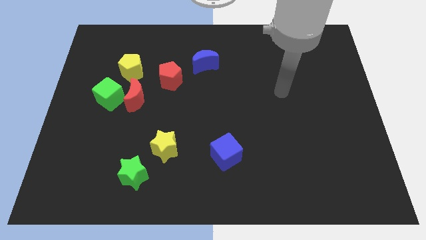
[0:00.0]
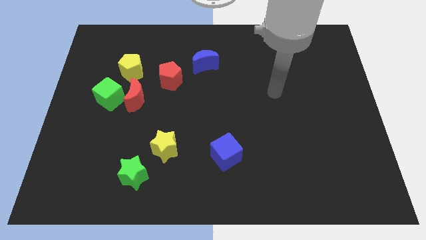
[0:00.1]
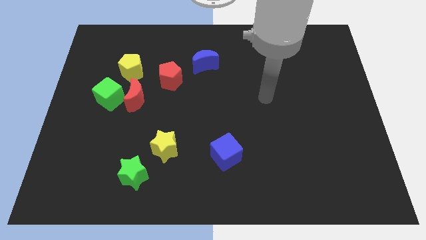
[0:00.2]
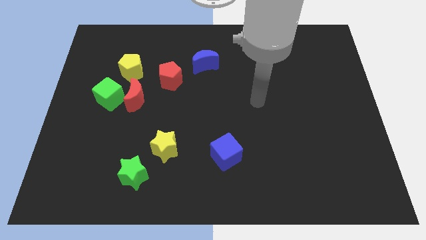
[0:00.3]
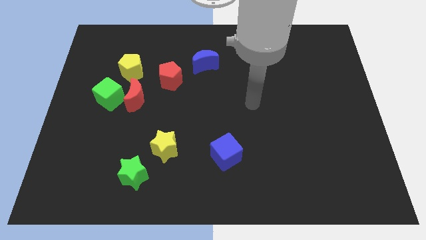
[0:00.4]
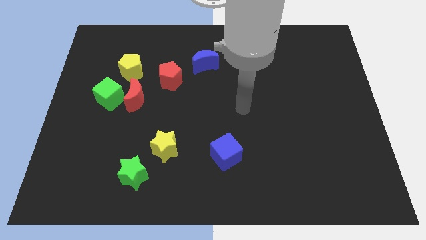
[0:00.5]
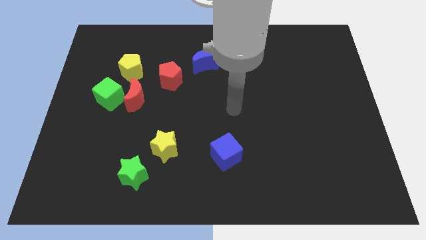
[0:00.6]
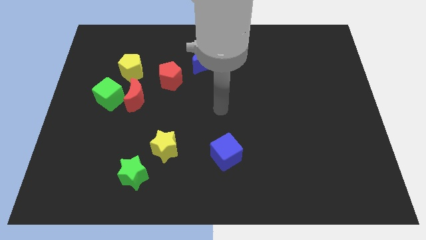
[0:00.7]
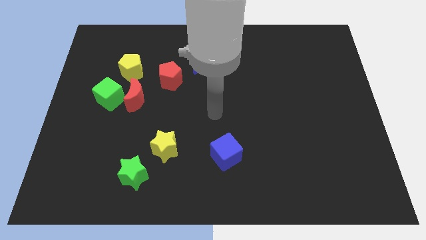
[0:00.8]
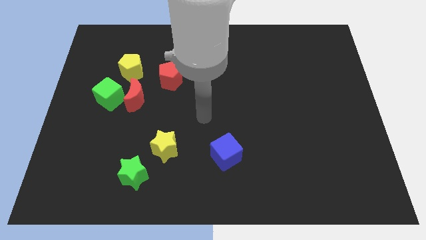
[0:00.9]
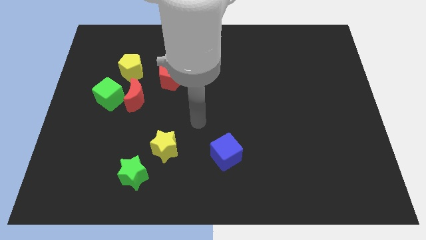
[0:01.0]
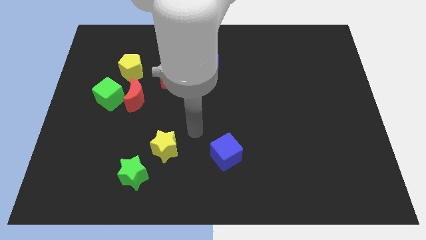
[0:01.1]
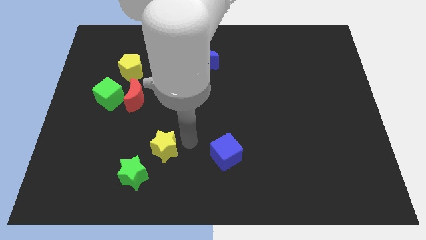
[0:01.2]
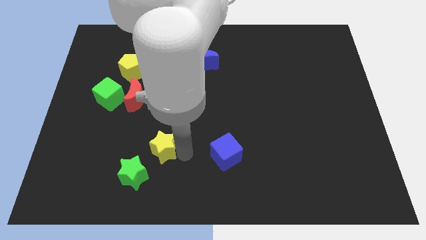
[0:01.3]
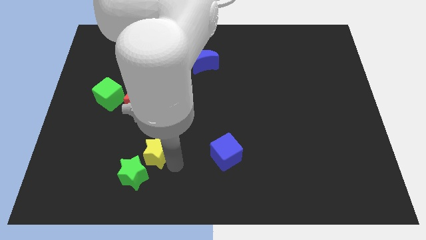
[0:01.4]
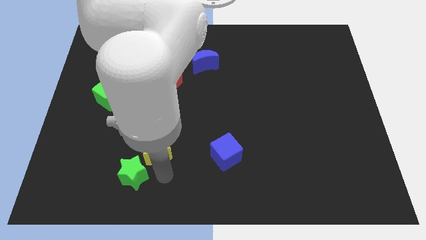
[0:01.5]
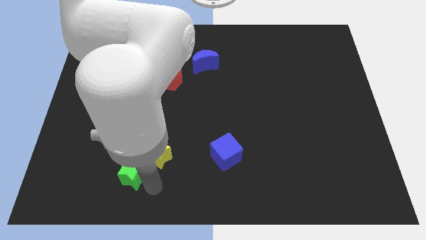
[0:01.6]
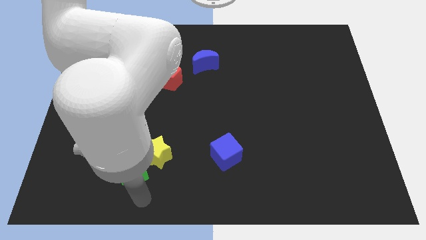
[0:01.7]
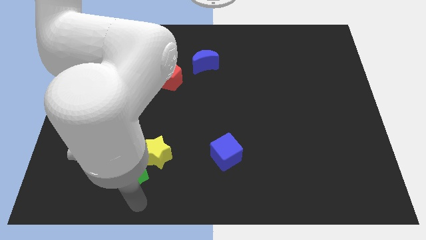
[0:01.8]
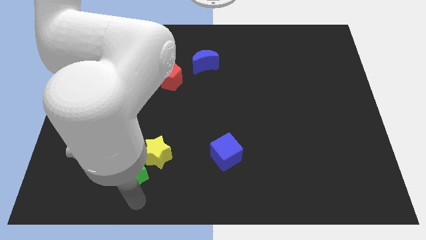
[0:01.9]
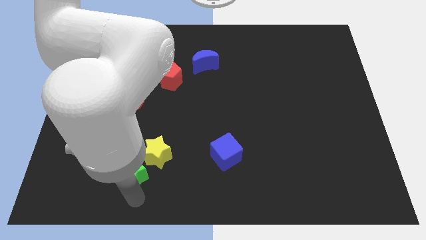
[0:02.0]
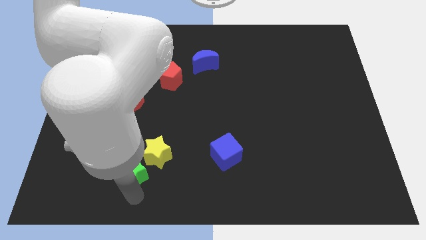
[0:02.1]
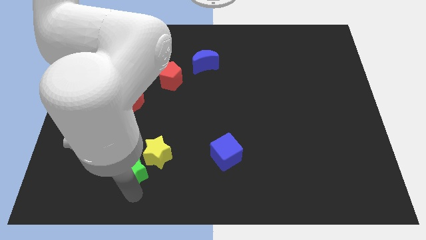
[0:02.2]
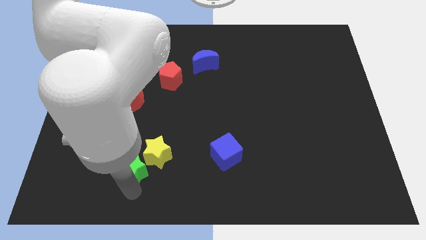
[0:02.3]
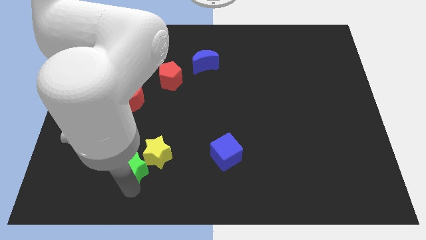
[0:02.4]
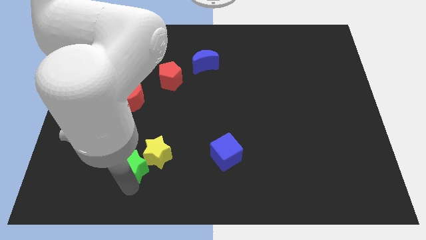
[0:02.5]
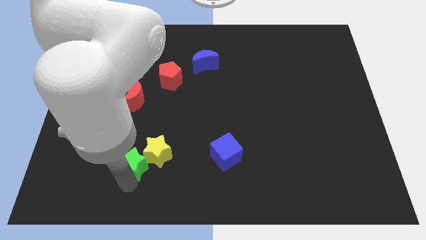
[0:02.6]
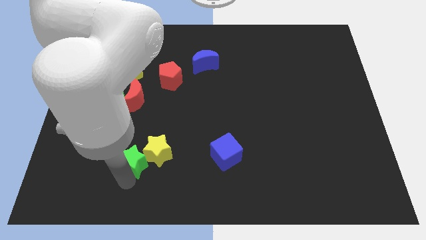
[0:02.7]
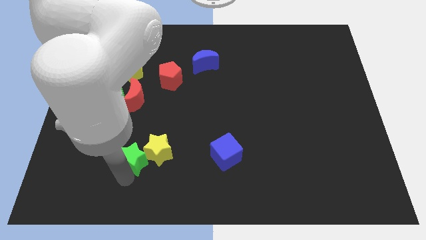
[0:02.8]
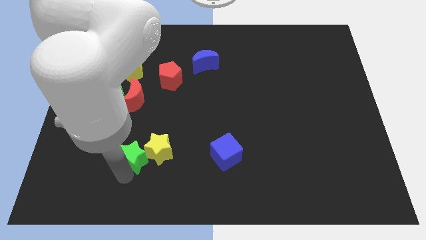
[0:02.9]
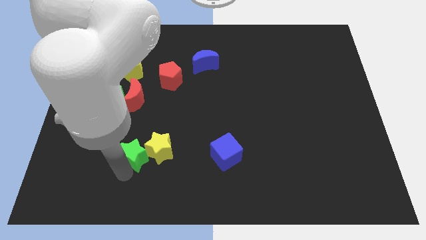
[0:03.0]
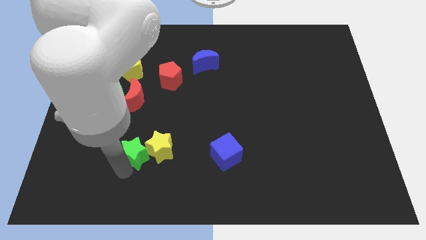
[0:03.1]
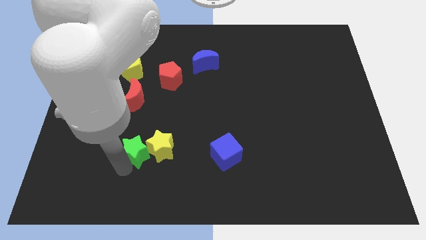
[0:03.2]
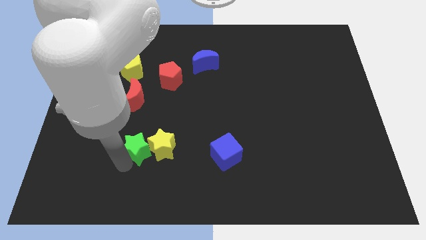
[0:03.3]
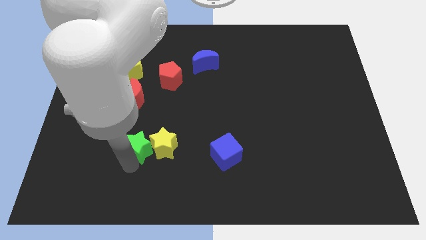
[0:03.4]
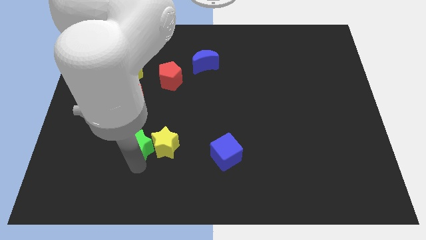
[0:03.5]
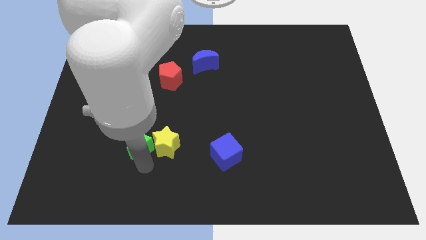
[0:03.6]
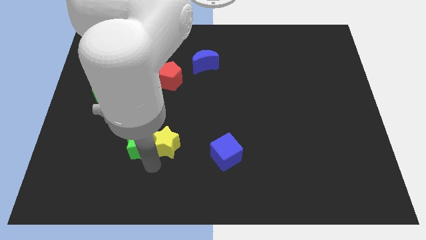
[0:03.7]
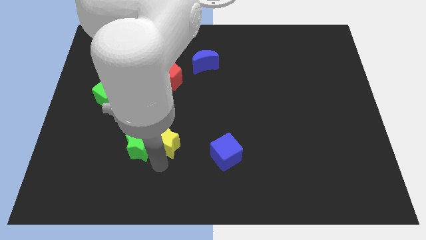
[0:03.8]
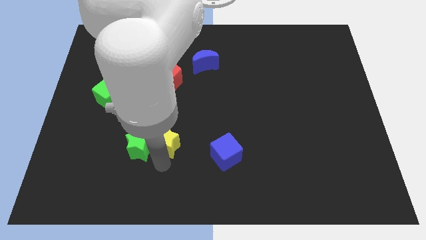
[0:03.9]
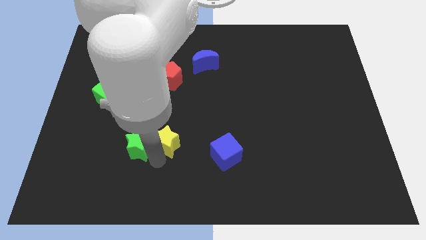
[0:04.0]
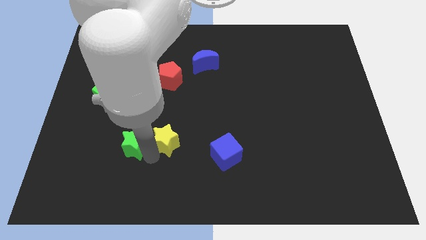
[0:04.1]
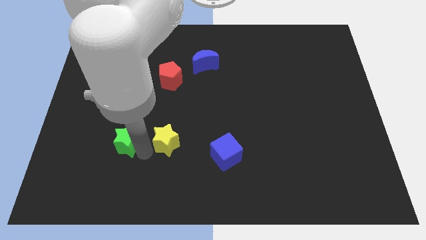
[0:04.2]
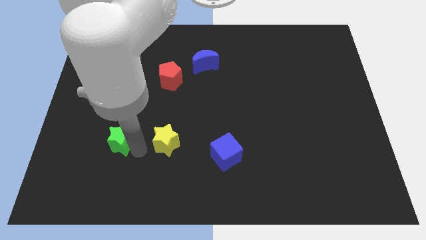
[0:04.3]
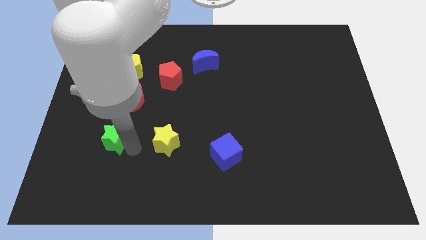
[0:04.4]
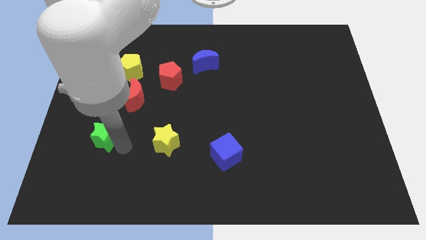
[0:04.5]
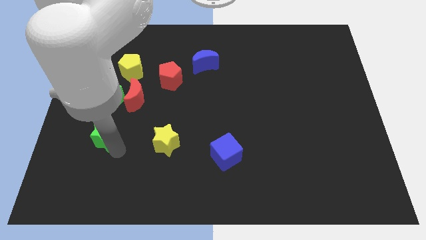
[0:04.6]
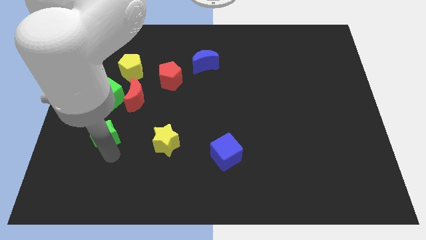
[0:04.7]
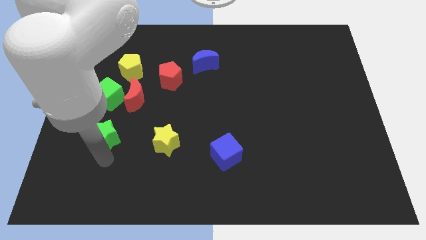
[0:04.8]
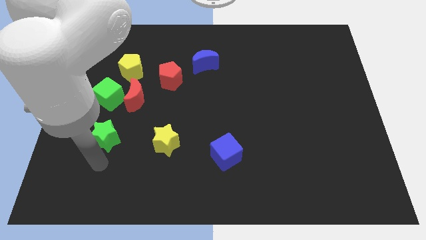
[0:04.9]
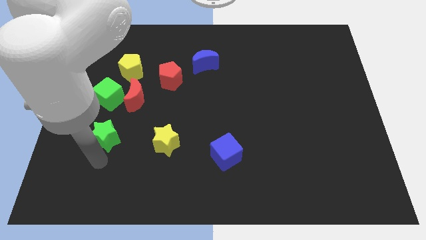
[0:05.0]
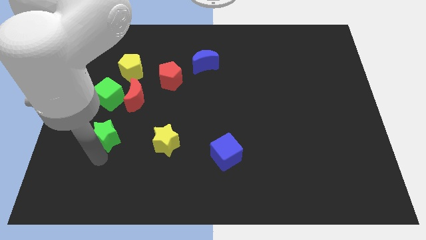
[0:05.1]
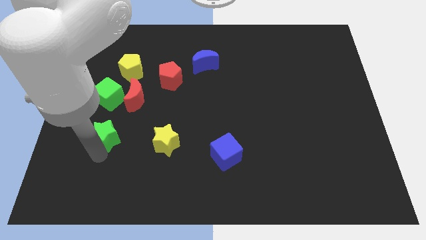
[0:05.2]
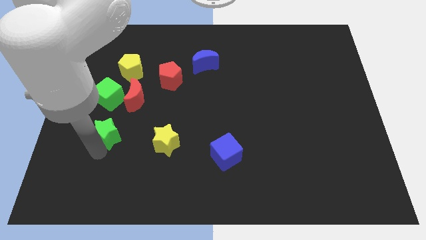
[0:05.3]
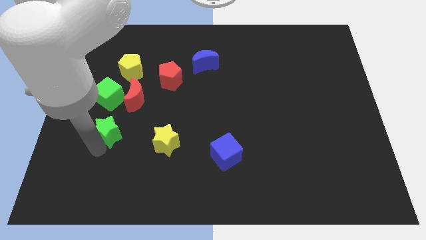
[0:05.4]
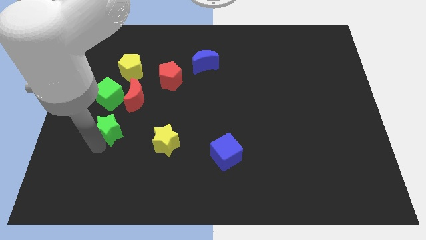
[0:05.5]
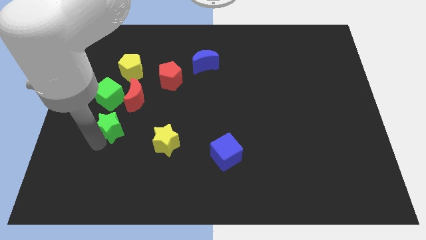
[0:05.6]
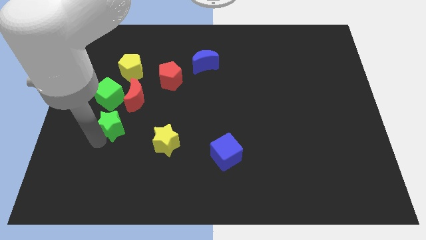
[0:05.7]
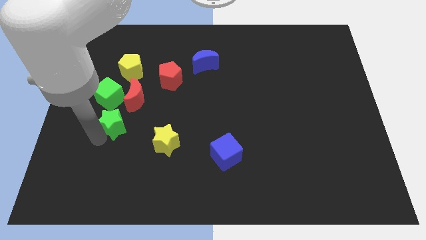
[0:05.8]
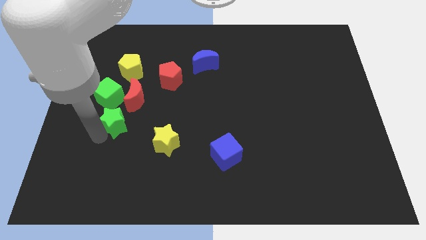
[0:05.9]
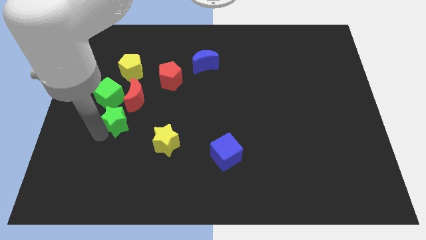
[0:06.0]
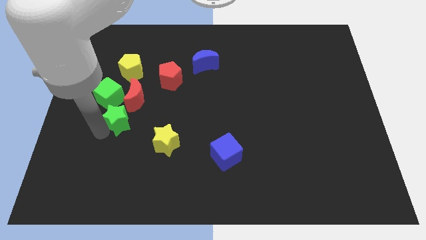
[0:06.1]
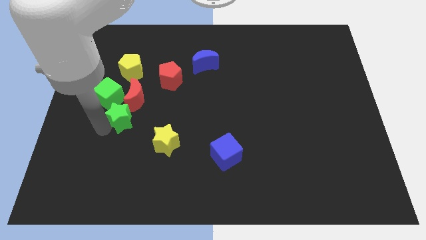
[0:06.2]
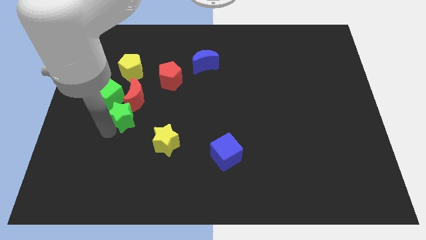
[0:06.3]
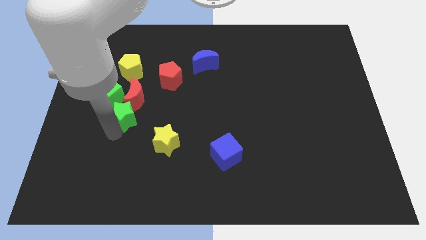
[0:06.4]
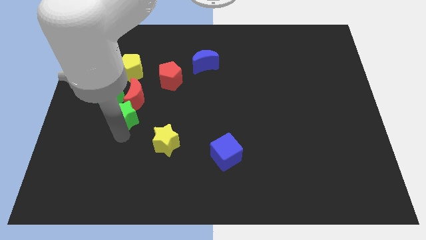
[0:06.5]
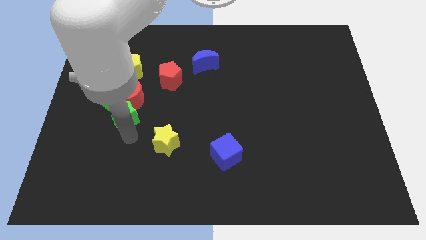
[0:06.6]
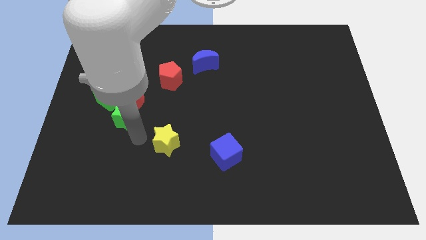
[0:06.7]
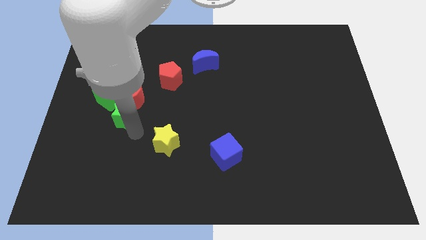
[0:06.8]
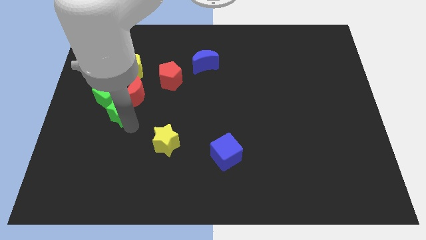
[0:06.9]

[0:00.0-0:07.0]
move the green star close to the green cube

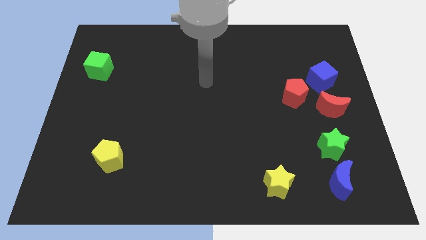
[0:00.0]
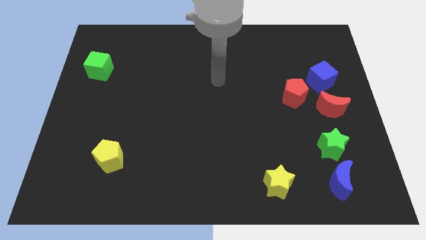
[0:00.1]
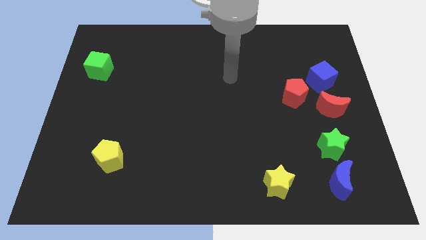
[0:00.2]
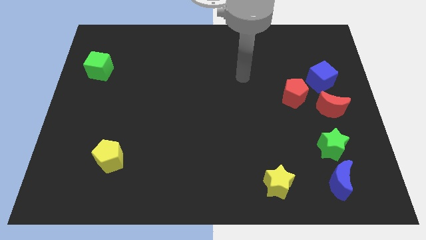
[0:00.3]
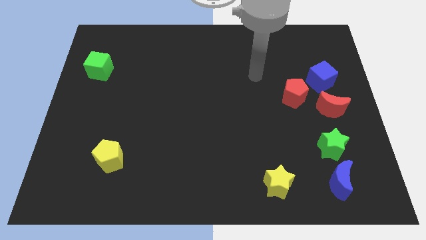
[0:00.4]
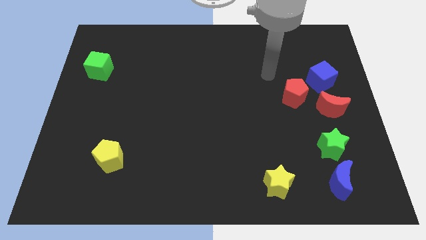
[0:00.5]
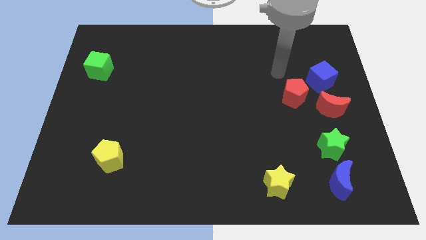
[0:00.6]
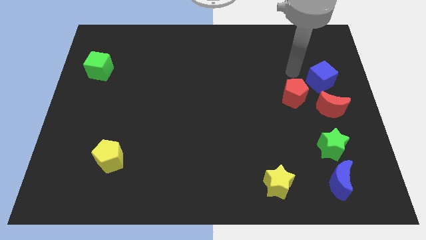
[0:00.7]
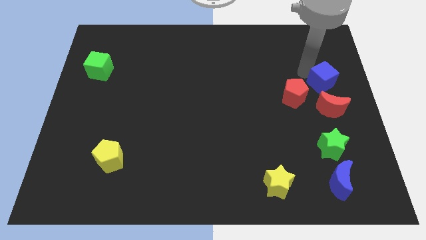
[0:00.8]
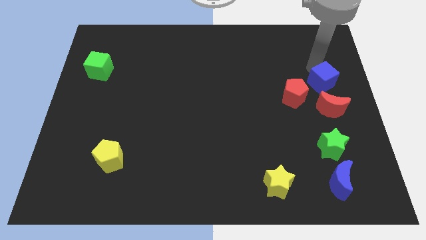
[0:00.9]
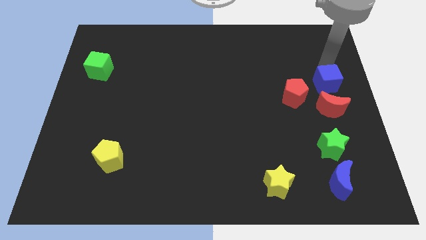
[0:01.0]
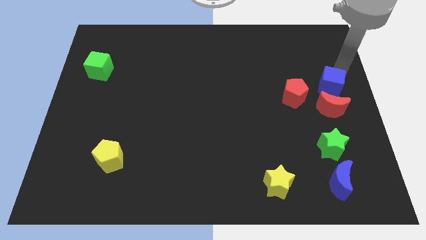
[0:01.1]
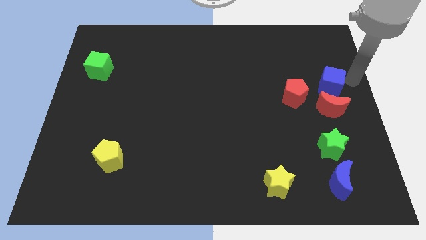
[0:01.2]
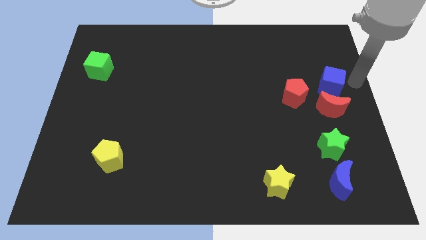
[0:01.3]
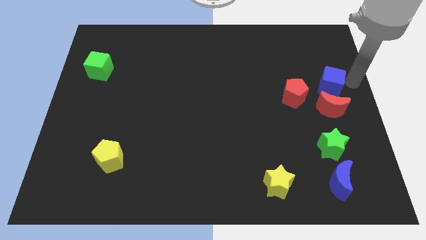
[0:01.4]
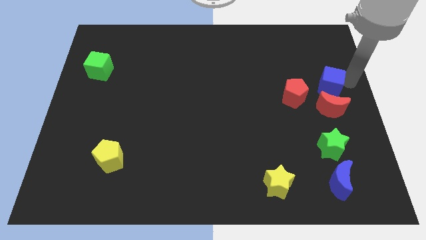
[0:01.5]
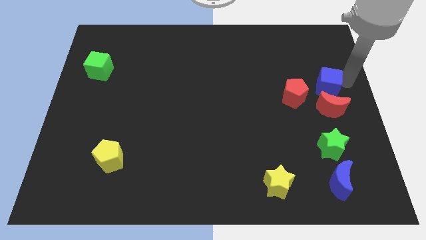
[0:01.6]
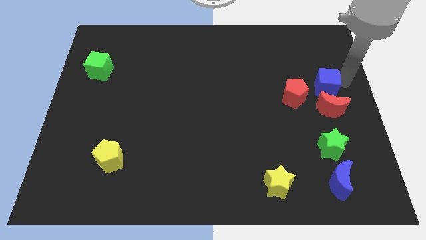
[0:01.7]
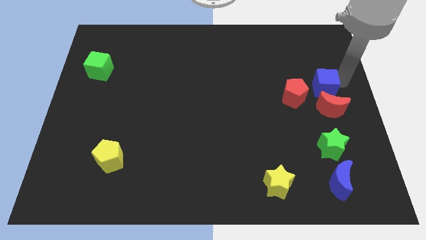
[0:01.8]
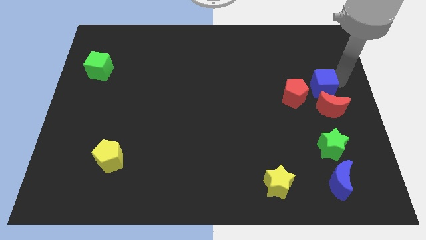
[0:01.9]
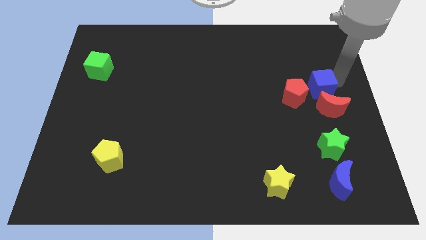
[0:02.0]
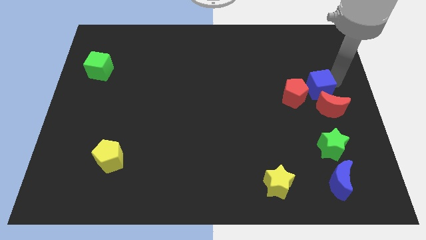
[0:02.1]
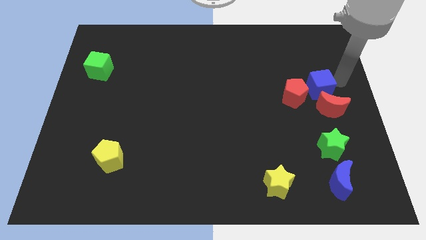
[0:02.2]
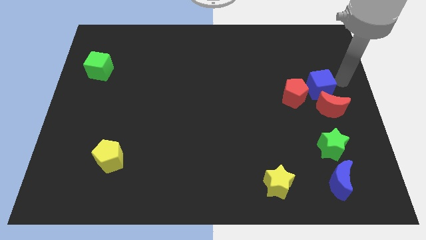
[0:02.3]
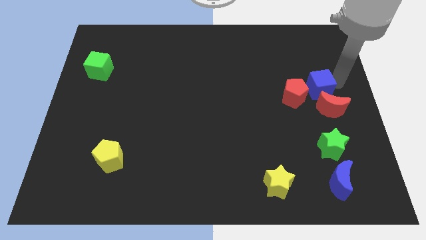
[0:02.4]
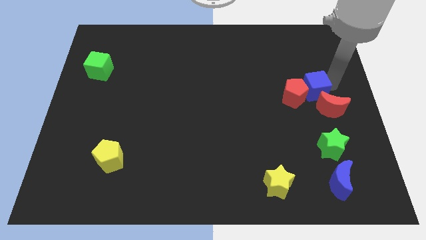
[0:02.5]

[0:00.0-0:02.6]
slide the blue cube towards the red pentagon
